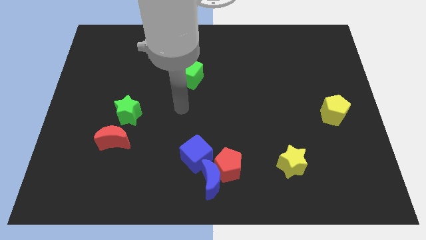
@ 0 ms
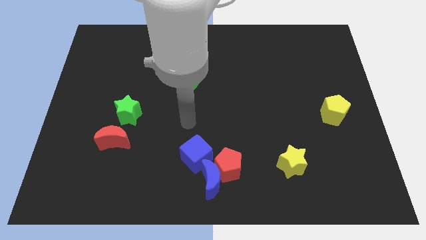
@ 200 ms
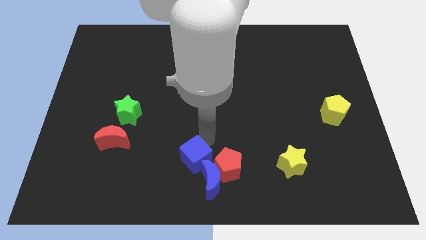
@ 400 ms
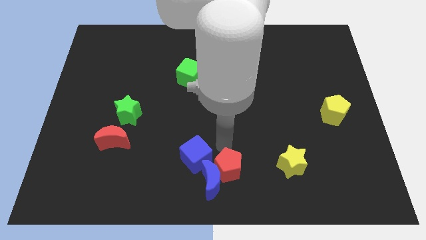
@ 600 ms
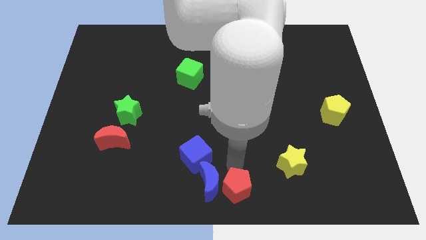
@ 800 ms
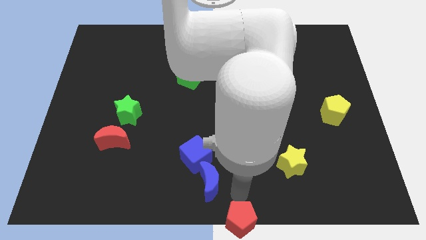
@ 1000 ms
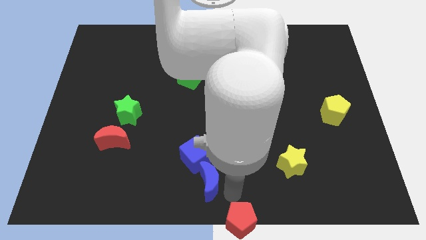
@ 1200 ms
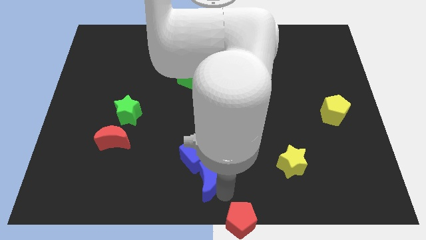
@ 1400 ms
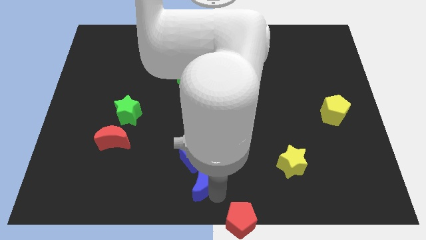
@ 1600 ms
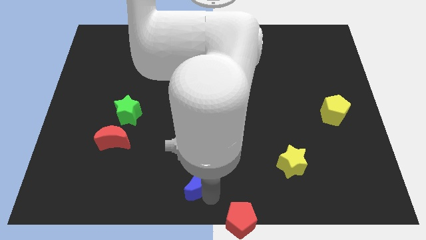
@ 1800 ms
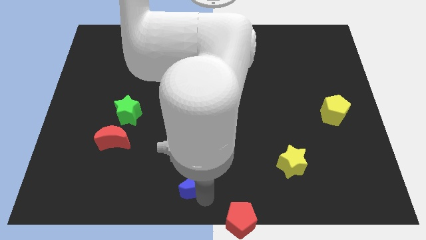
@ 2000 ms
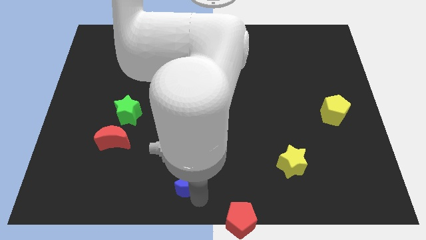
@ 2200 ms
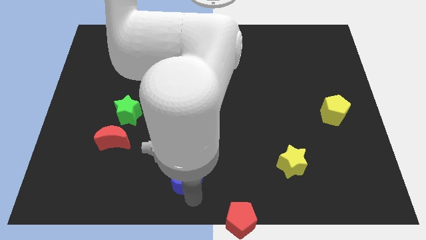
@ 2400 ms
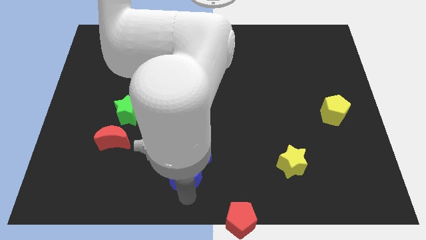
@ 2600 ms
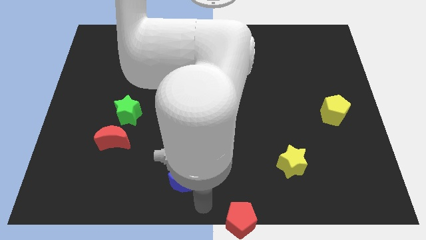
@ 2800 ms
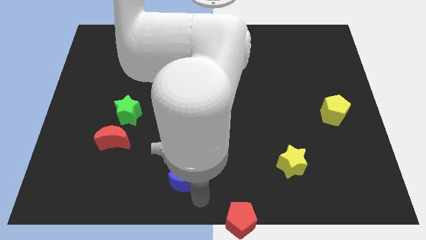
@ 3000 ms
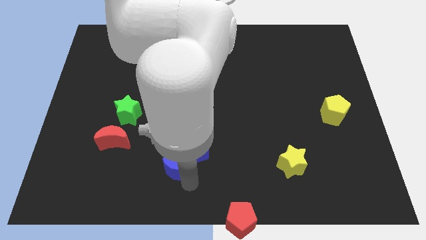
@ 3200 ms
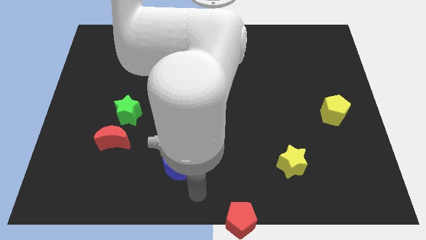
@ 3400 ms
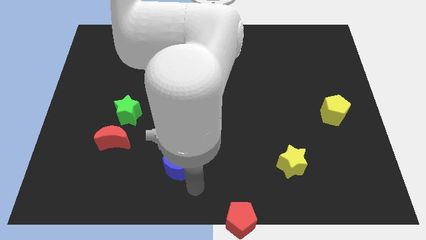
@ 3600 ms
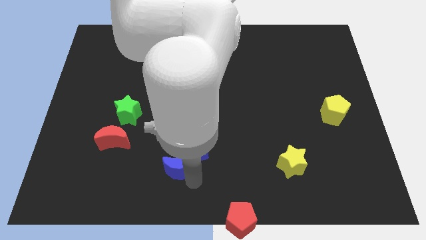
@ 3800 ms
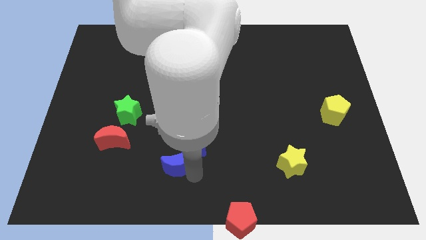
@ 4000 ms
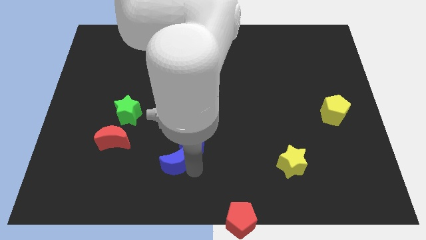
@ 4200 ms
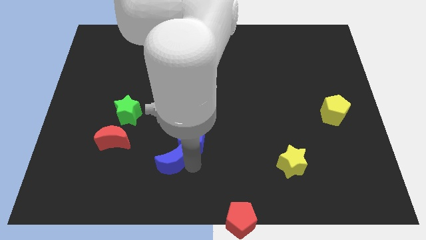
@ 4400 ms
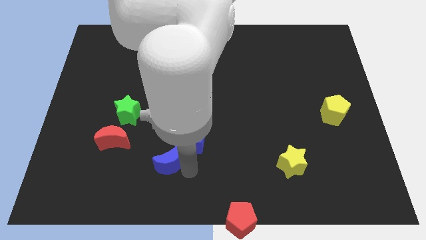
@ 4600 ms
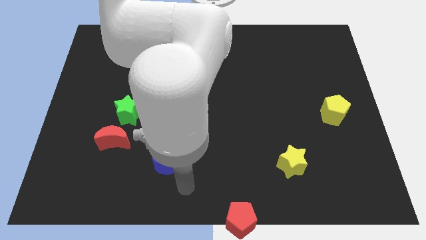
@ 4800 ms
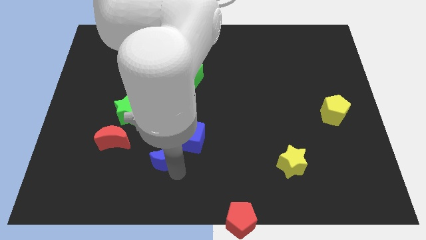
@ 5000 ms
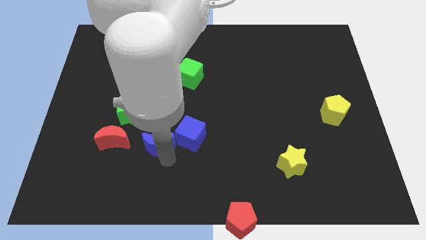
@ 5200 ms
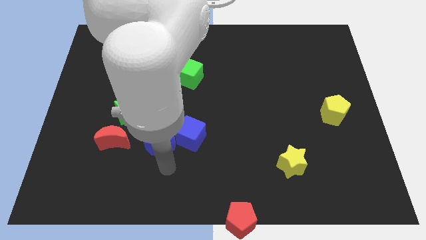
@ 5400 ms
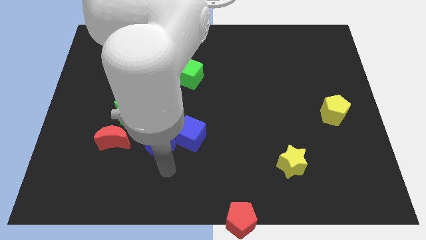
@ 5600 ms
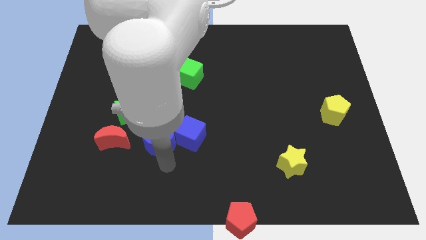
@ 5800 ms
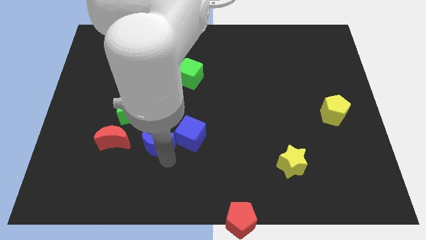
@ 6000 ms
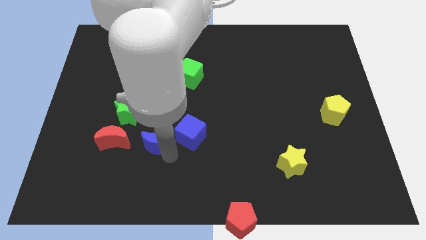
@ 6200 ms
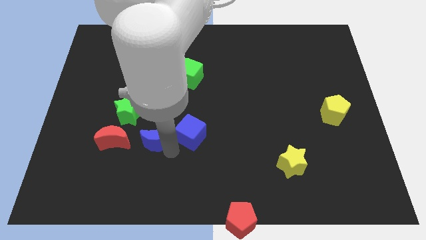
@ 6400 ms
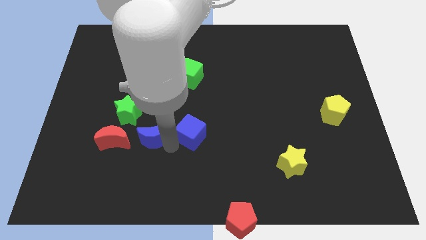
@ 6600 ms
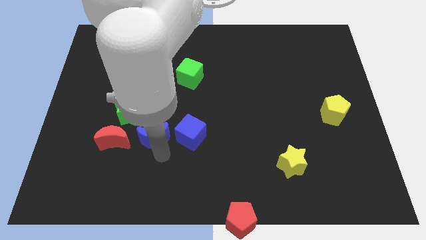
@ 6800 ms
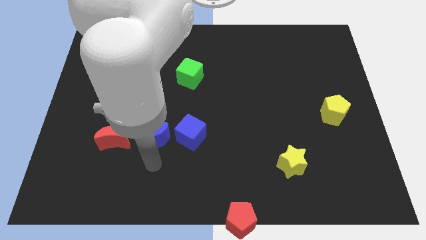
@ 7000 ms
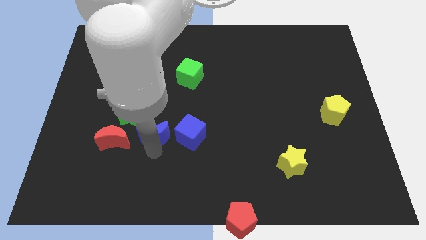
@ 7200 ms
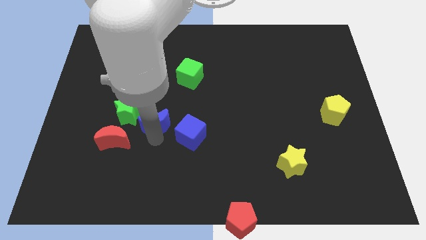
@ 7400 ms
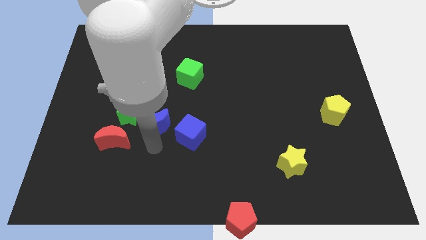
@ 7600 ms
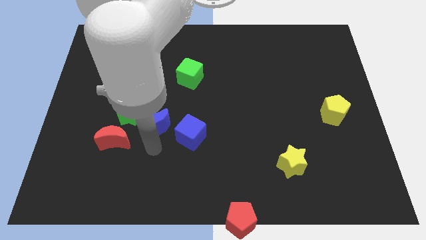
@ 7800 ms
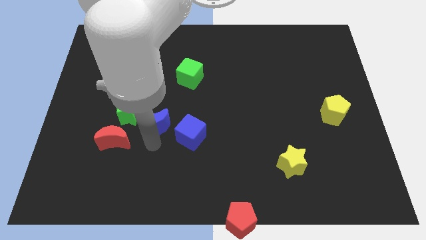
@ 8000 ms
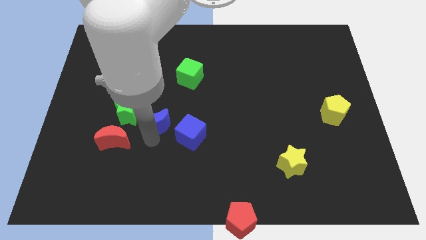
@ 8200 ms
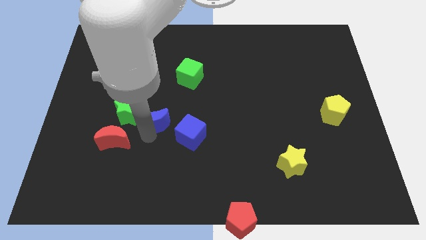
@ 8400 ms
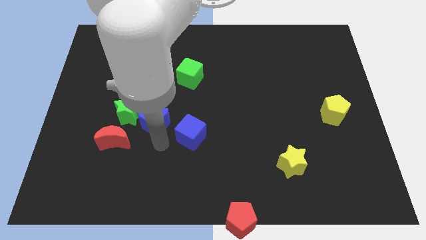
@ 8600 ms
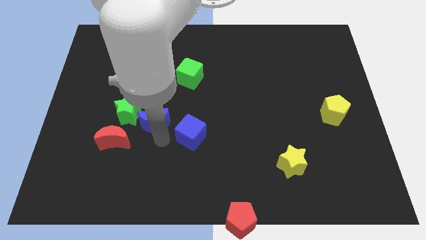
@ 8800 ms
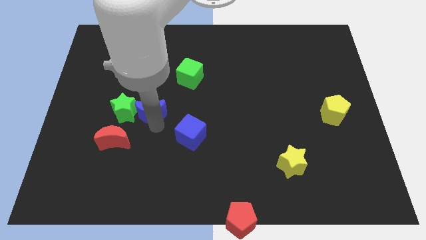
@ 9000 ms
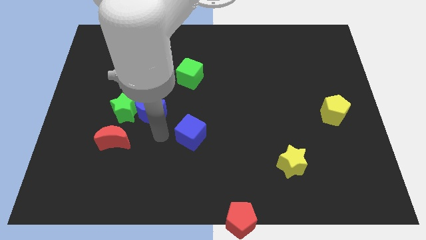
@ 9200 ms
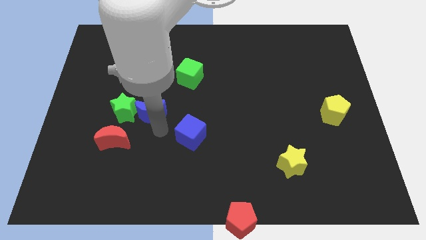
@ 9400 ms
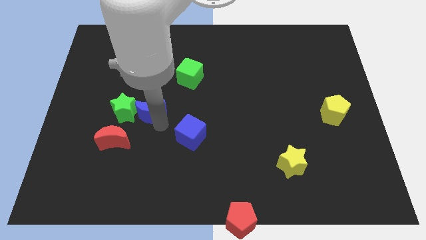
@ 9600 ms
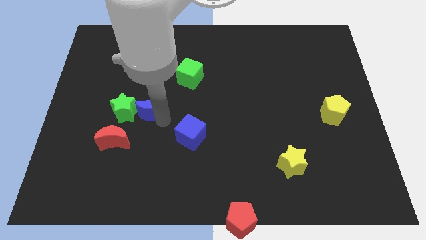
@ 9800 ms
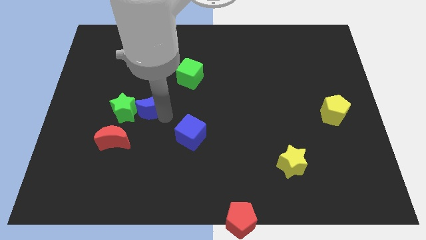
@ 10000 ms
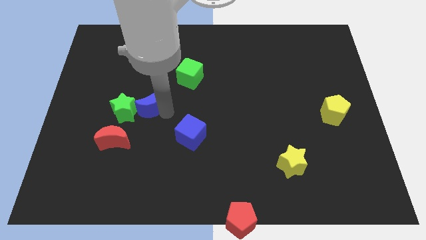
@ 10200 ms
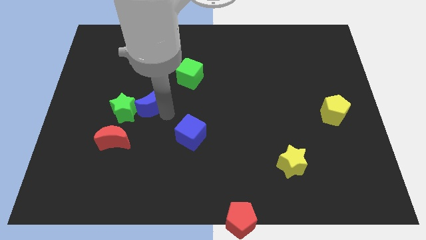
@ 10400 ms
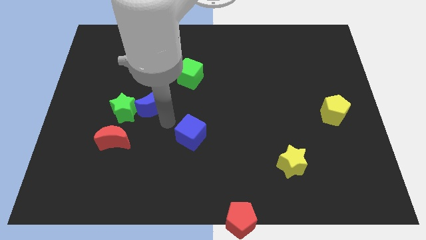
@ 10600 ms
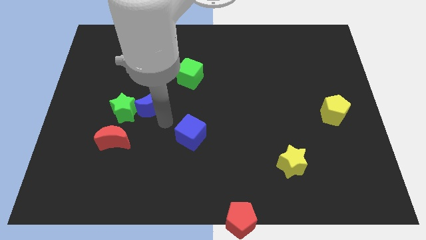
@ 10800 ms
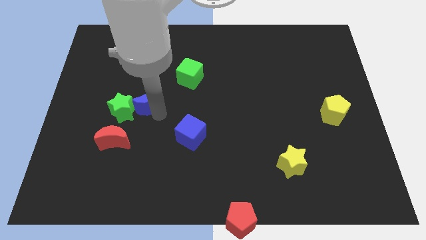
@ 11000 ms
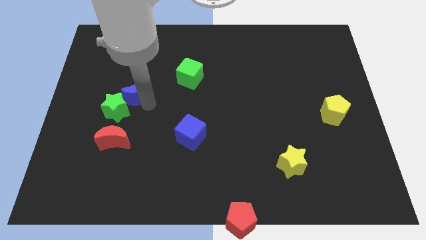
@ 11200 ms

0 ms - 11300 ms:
slide the blue moon above the green star

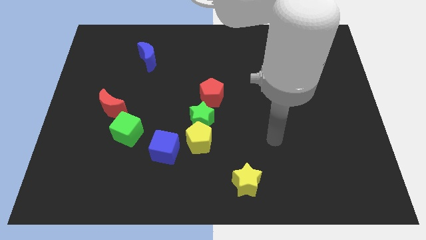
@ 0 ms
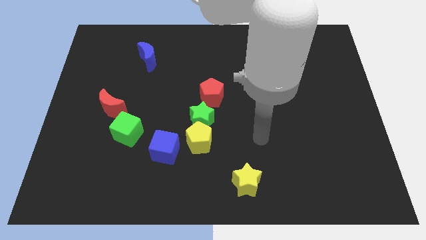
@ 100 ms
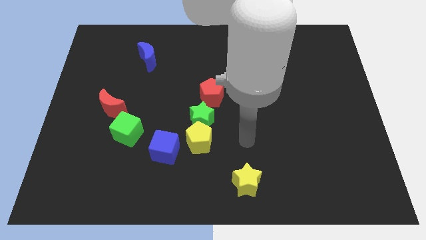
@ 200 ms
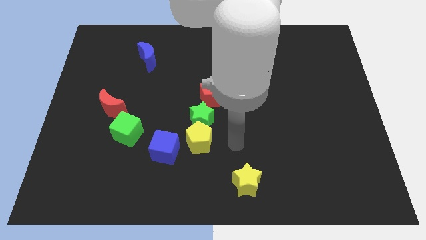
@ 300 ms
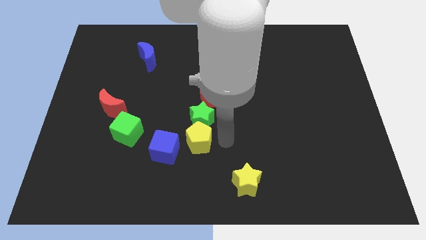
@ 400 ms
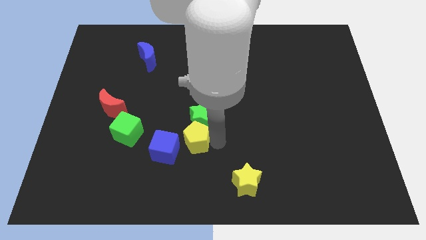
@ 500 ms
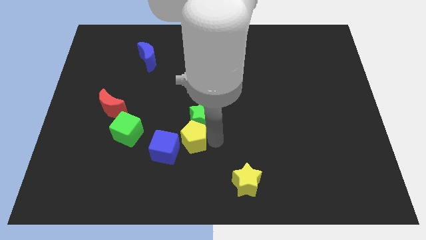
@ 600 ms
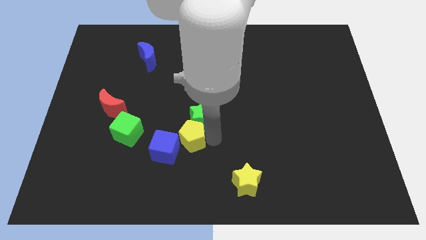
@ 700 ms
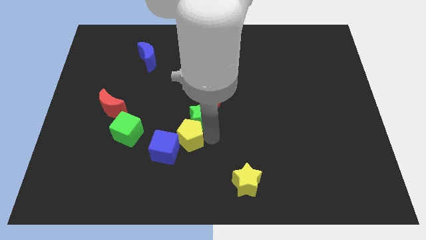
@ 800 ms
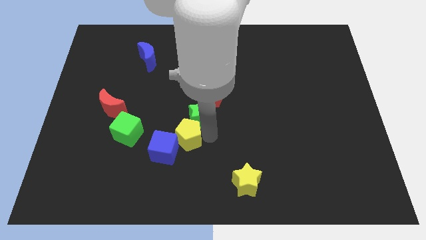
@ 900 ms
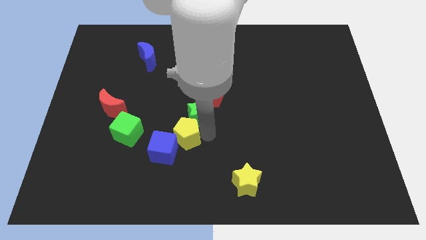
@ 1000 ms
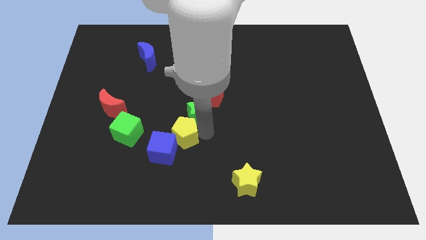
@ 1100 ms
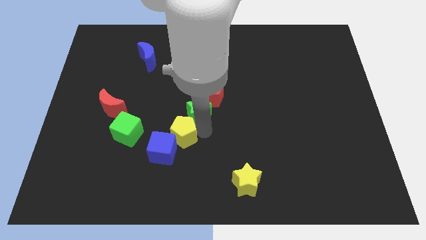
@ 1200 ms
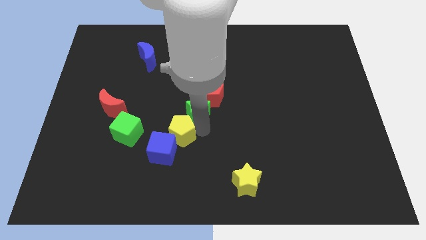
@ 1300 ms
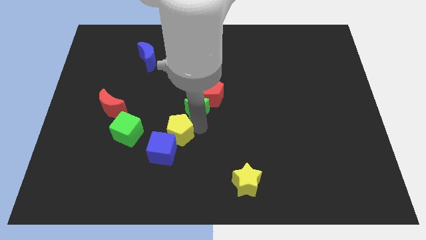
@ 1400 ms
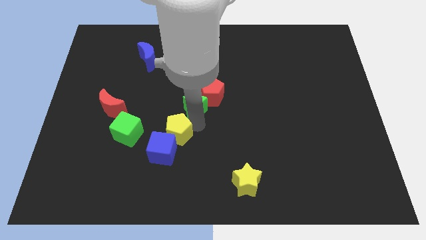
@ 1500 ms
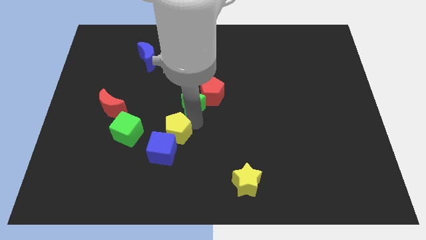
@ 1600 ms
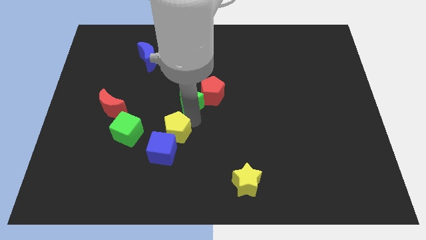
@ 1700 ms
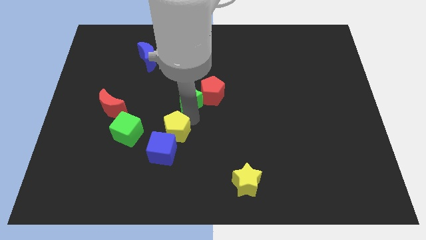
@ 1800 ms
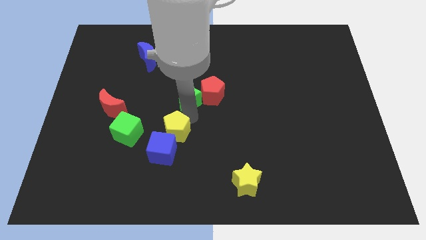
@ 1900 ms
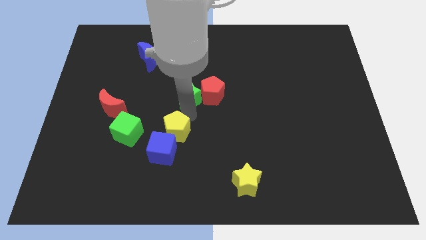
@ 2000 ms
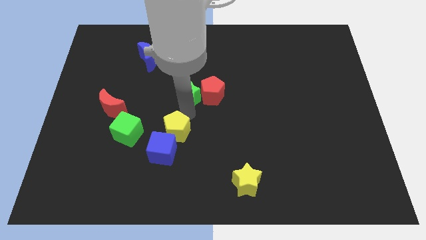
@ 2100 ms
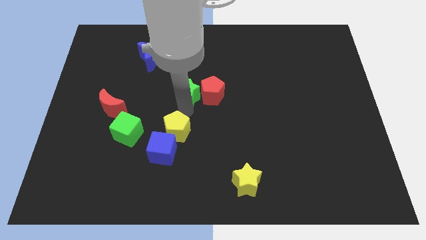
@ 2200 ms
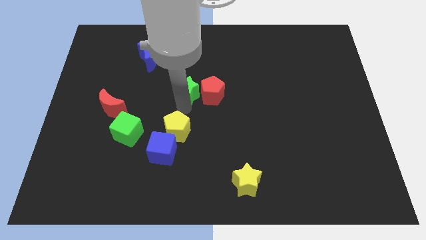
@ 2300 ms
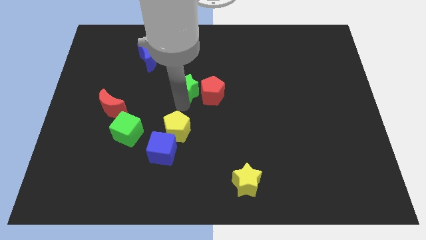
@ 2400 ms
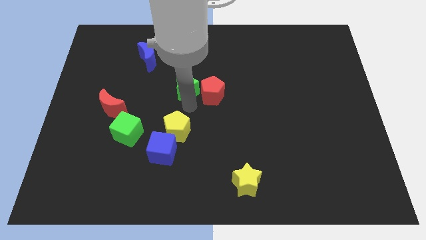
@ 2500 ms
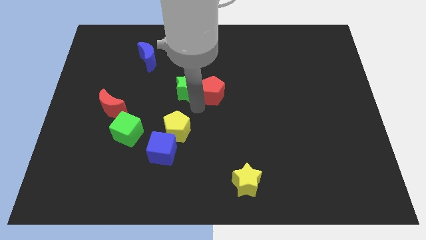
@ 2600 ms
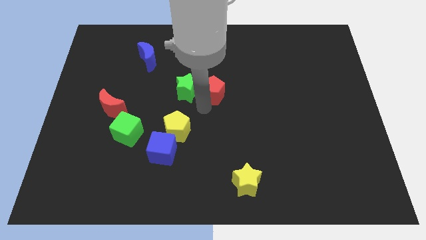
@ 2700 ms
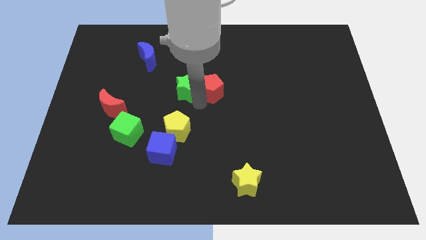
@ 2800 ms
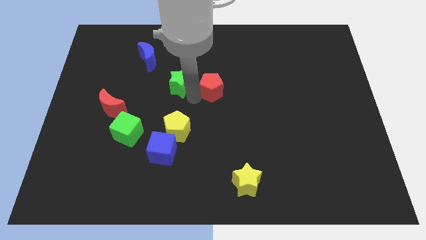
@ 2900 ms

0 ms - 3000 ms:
slide the green star to the bottom right of the blue moon
